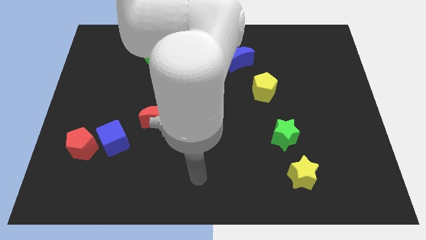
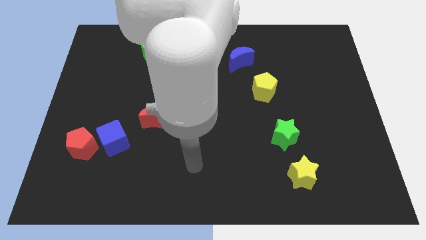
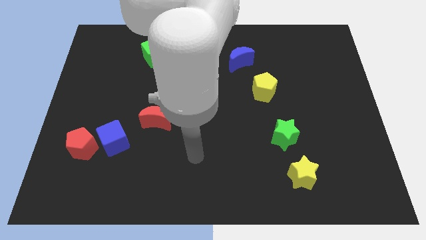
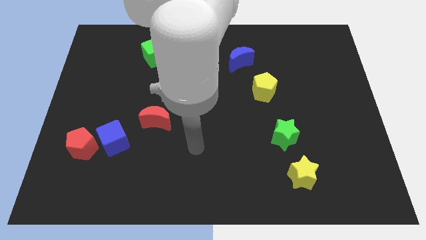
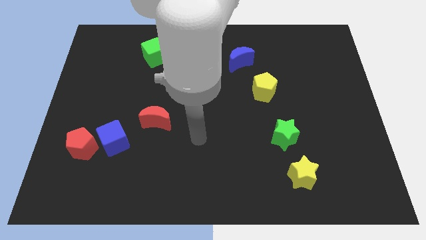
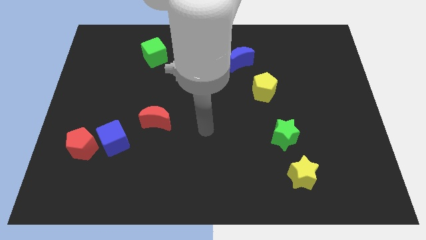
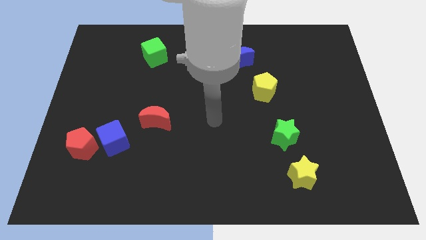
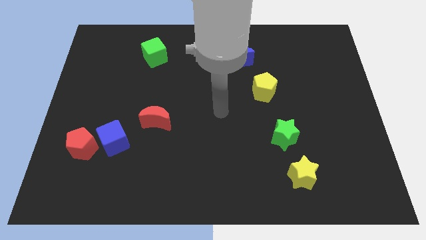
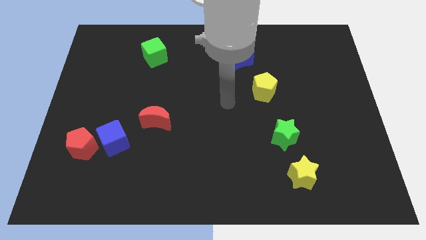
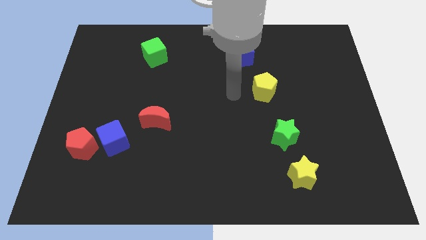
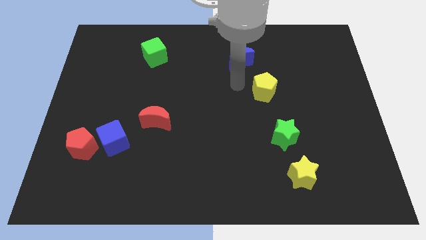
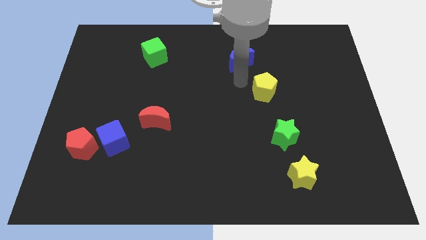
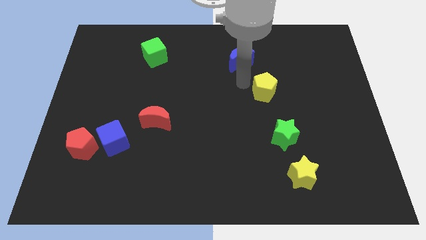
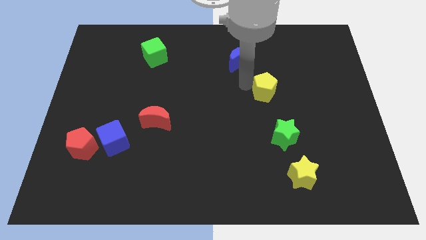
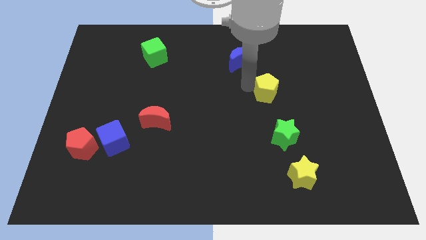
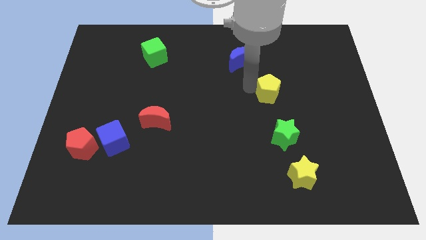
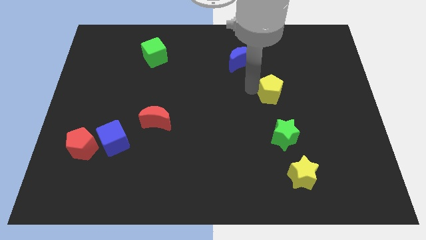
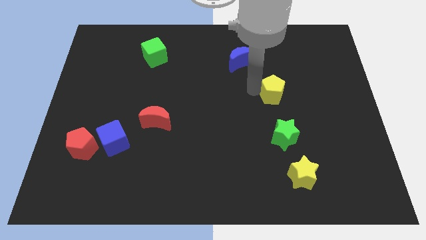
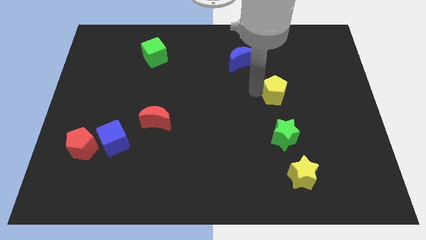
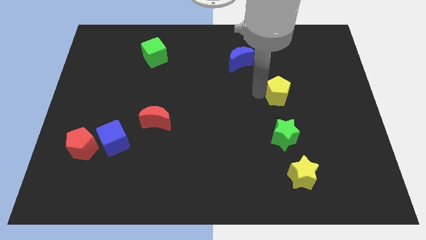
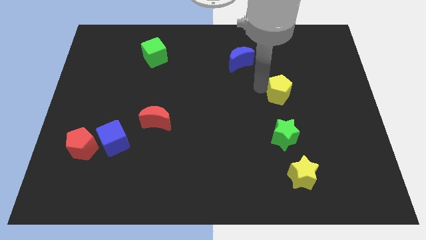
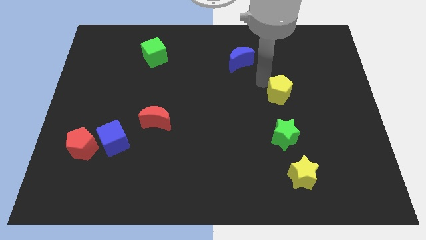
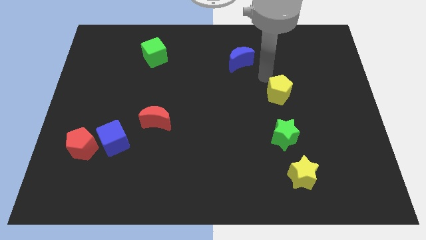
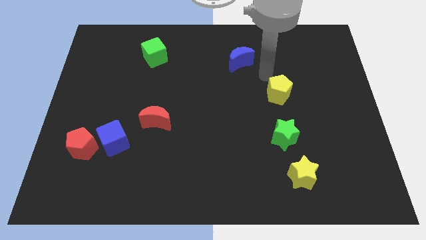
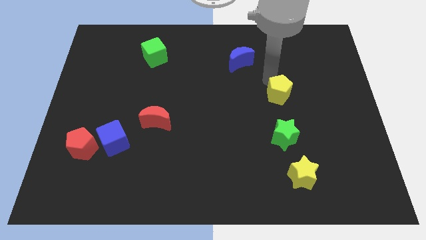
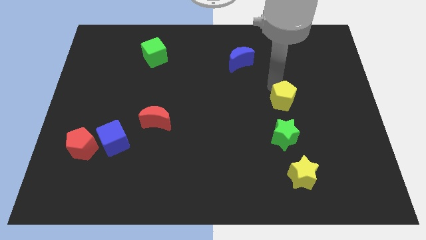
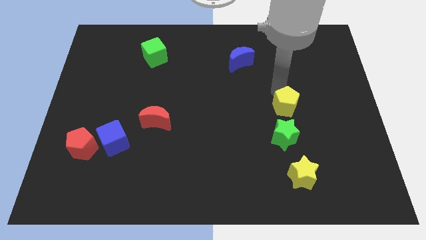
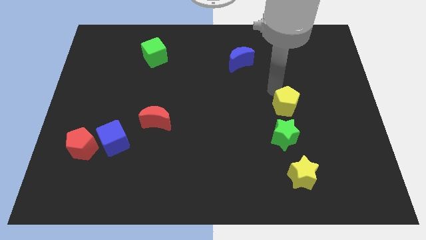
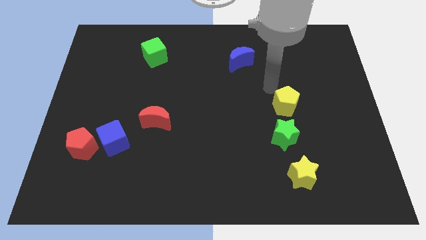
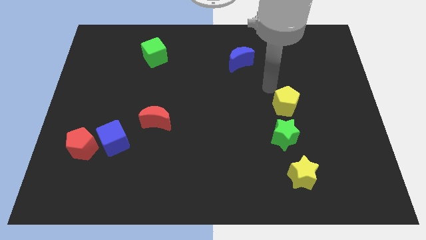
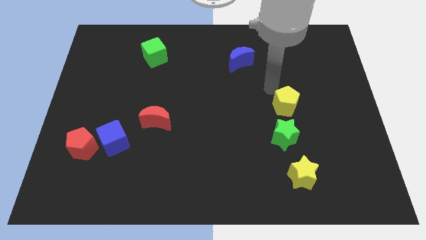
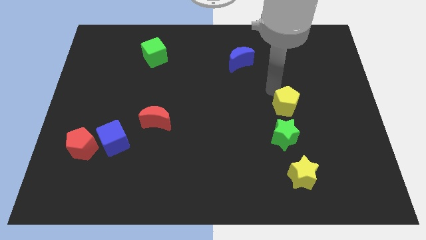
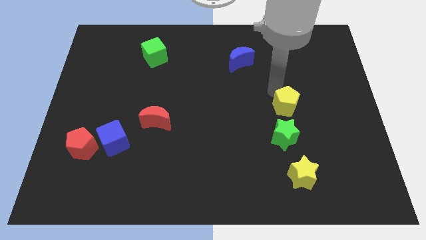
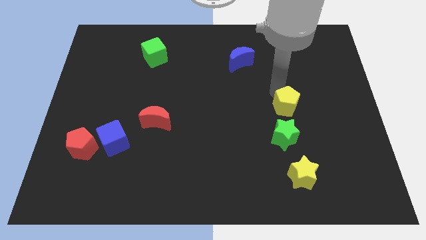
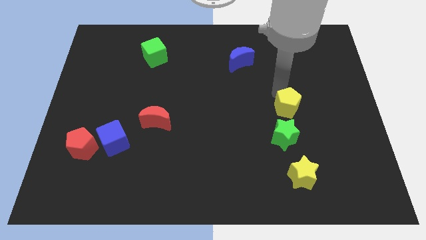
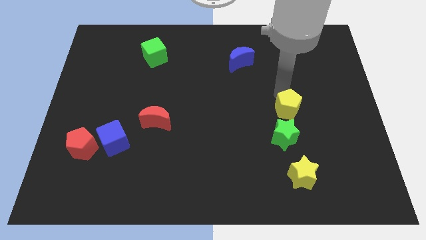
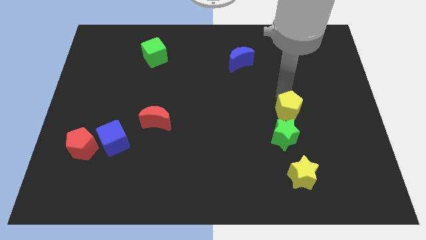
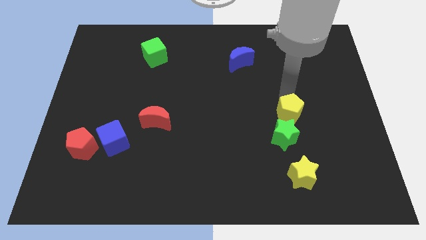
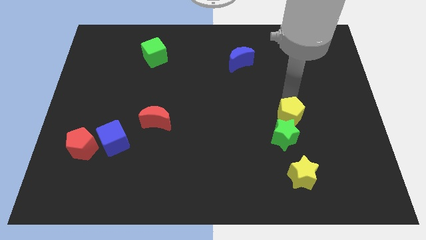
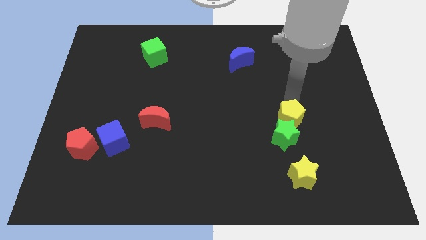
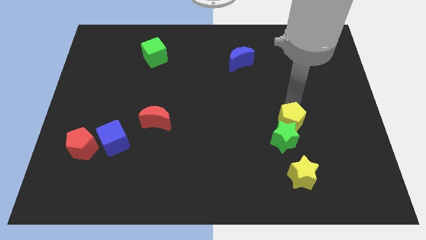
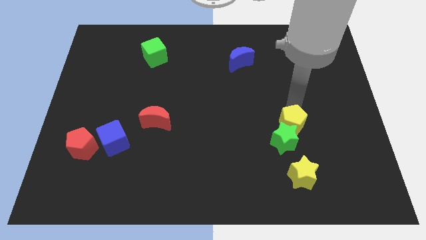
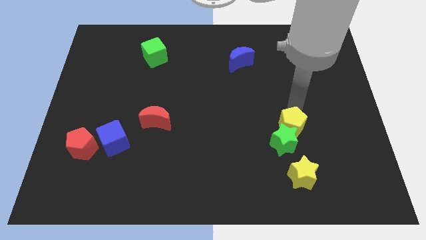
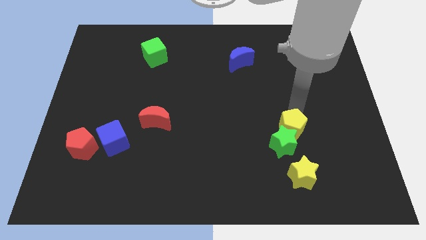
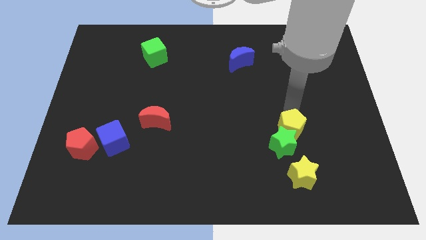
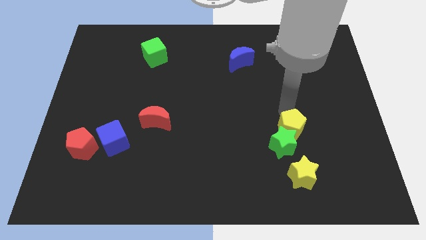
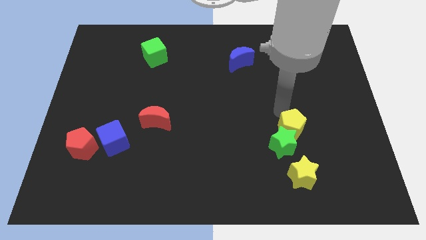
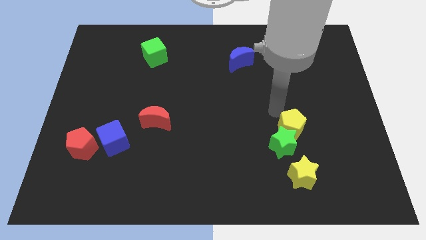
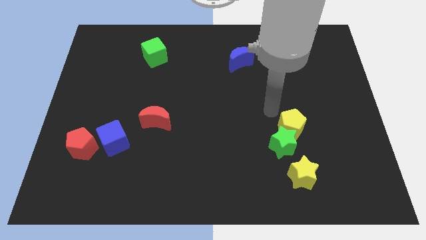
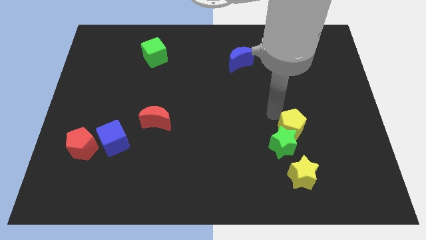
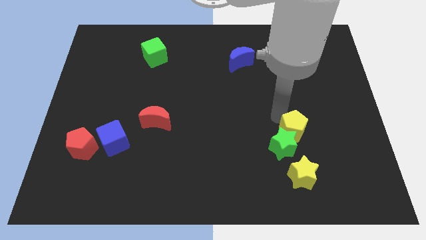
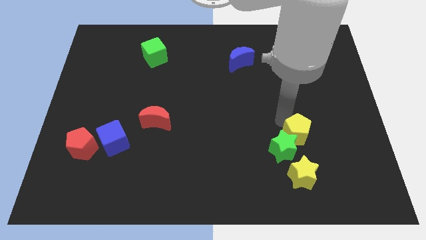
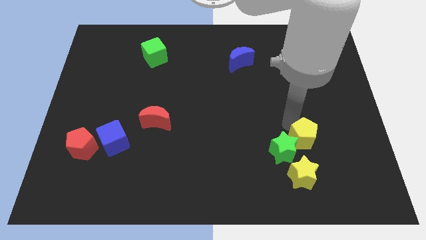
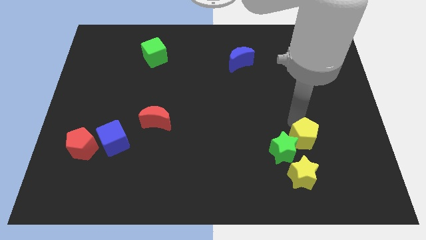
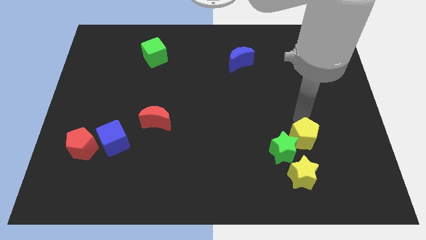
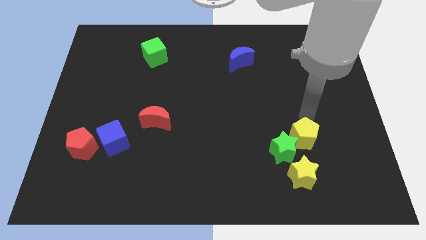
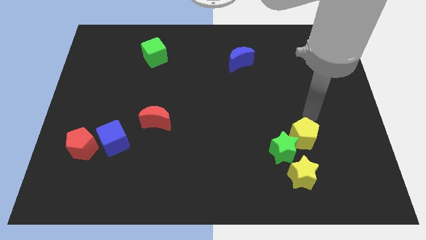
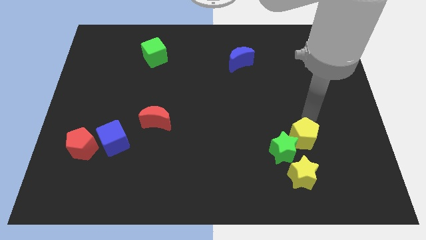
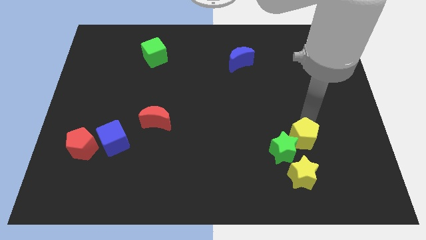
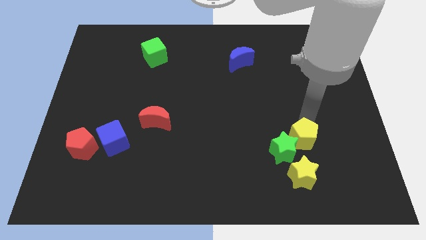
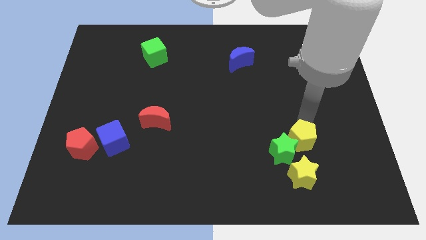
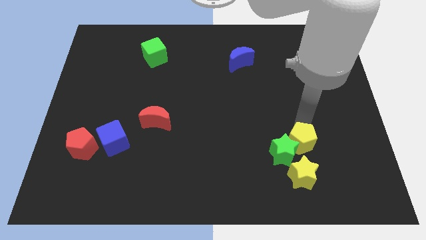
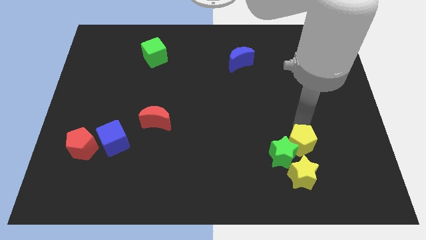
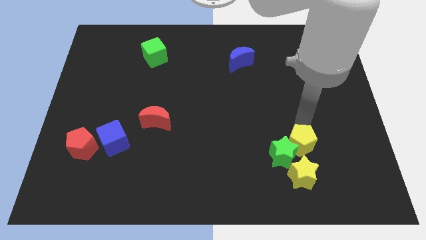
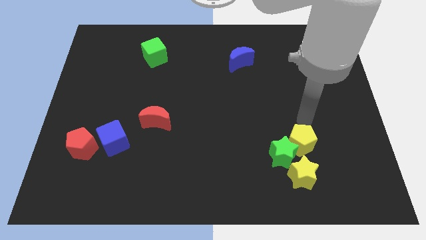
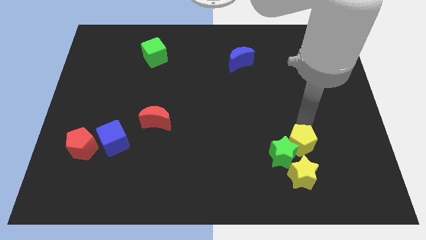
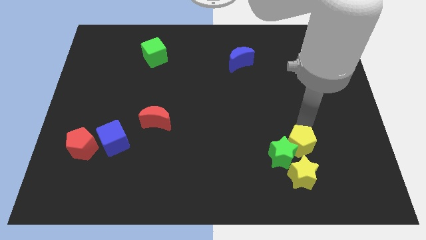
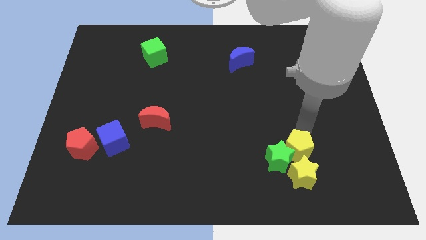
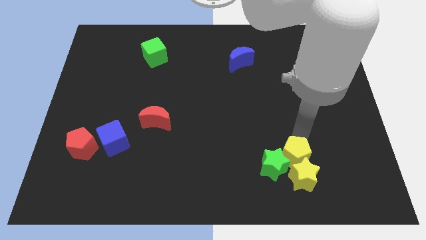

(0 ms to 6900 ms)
put the yellow pentagon next to the yellow star
